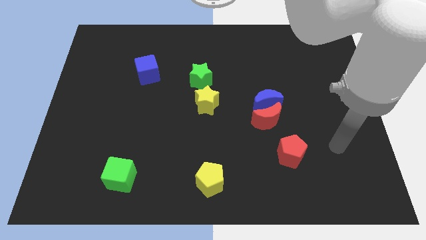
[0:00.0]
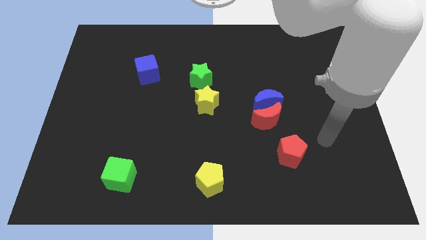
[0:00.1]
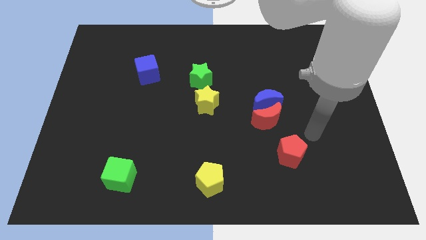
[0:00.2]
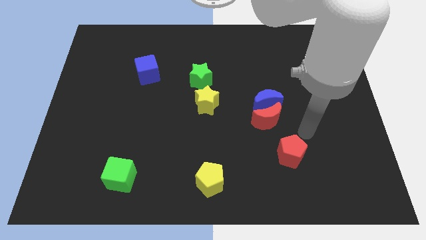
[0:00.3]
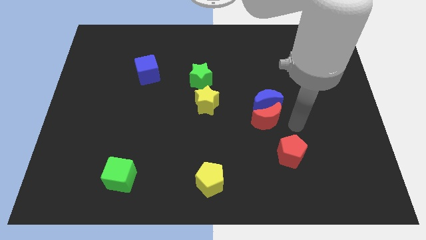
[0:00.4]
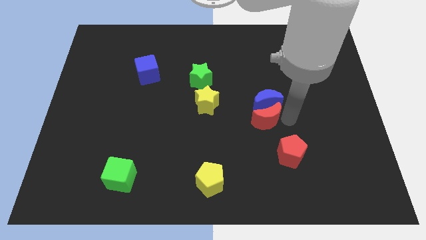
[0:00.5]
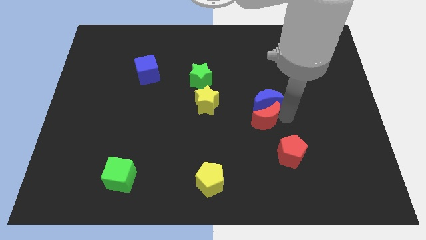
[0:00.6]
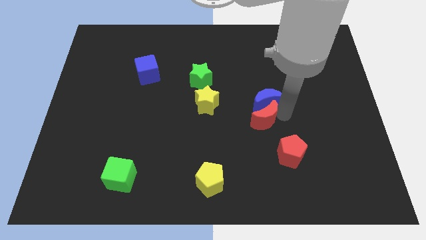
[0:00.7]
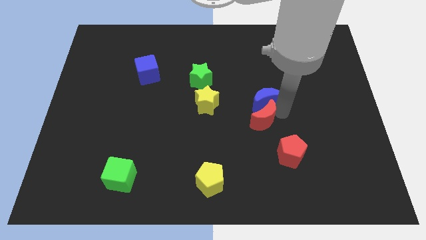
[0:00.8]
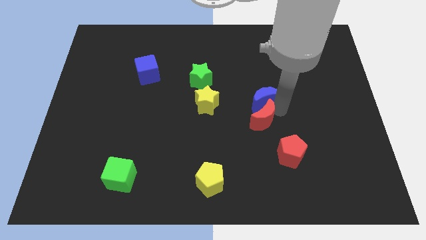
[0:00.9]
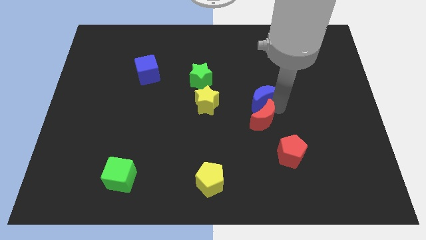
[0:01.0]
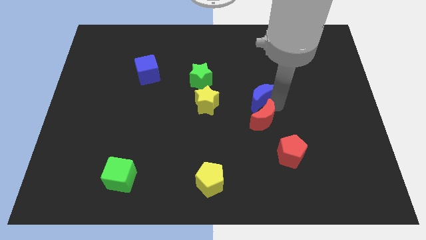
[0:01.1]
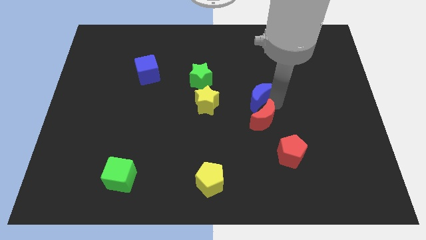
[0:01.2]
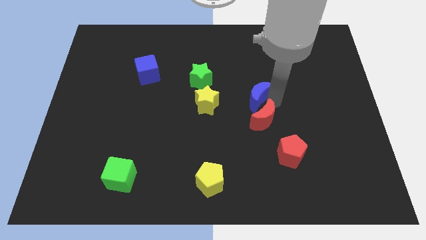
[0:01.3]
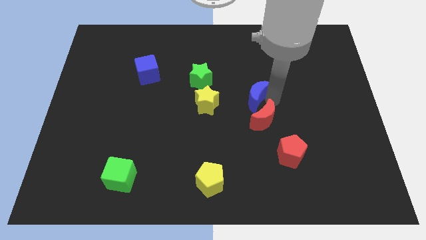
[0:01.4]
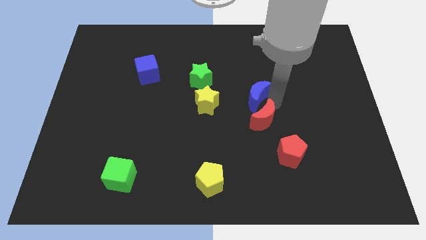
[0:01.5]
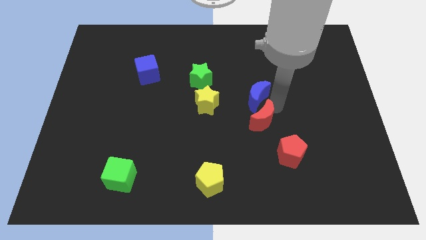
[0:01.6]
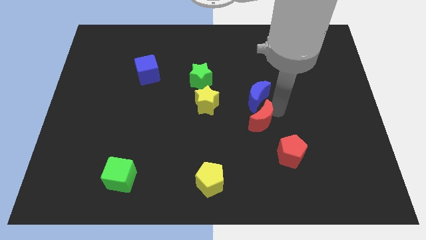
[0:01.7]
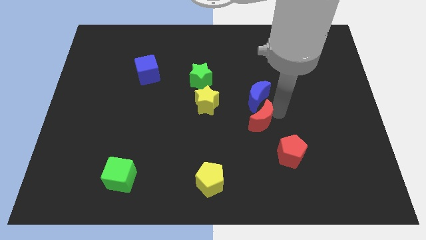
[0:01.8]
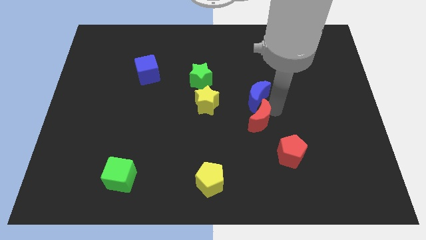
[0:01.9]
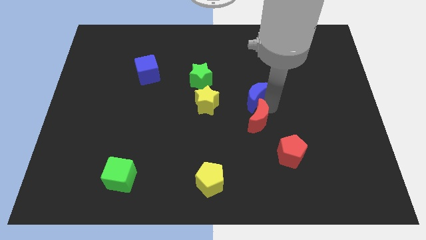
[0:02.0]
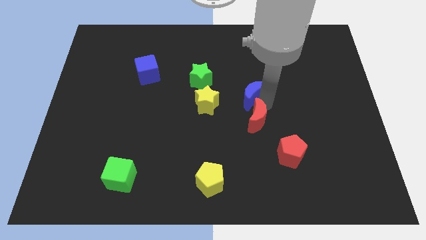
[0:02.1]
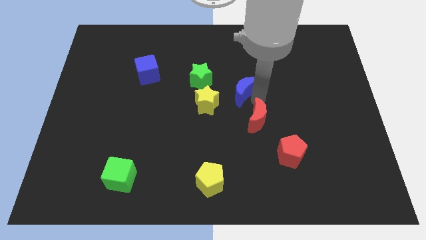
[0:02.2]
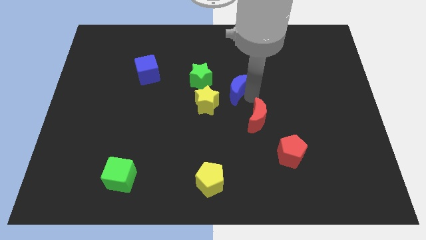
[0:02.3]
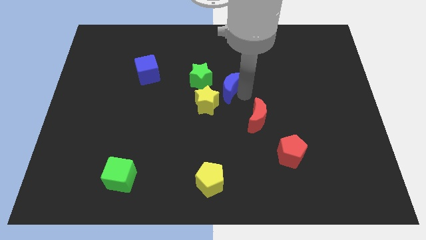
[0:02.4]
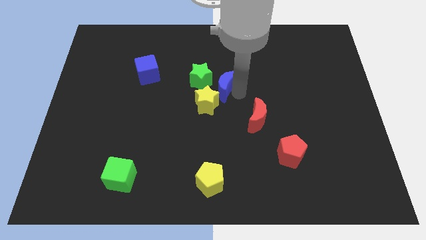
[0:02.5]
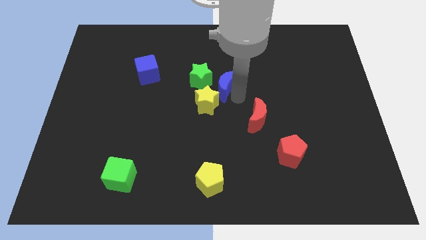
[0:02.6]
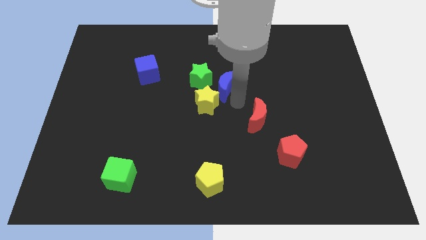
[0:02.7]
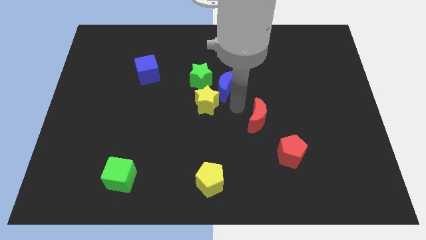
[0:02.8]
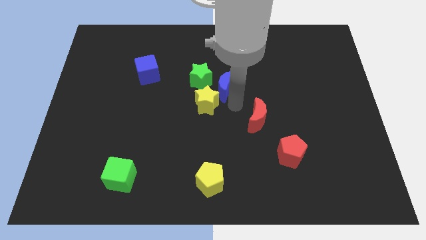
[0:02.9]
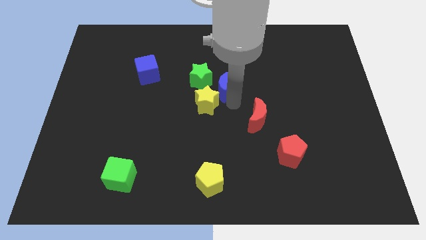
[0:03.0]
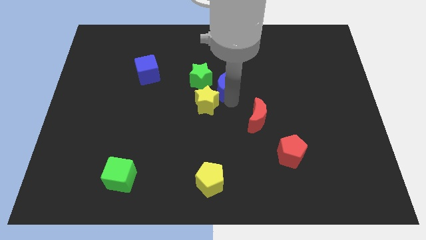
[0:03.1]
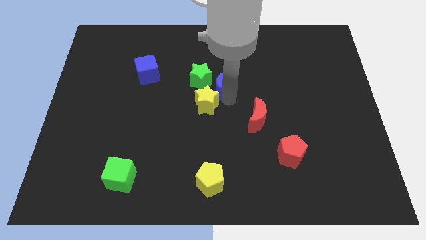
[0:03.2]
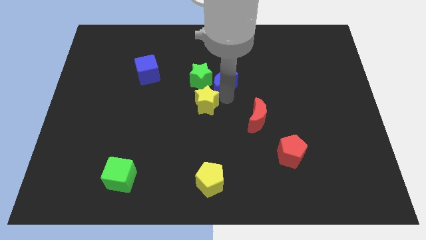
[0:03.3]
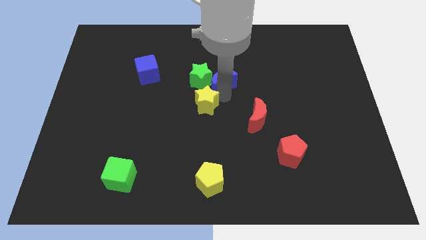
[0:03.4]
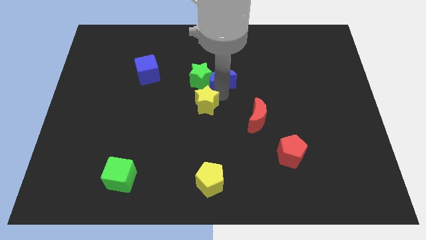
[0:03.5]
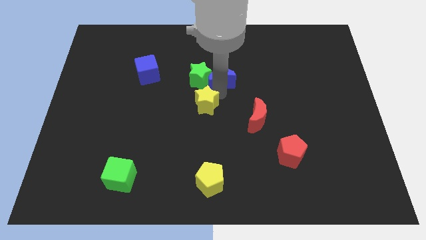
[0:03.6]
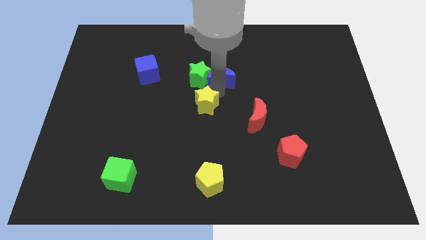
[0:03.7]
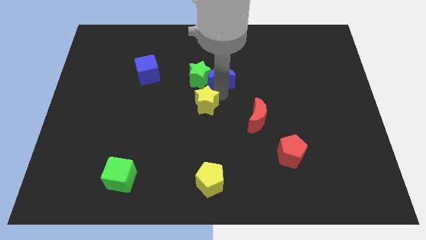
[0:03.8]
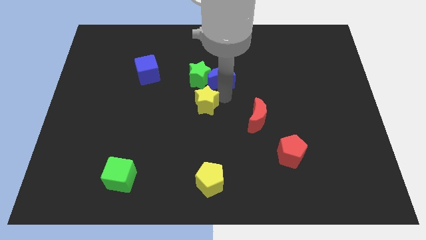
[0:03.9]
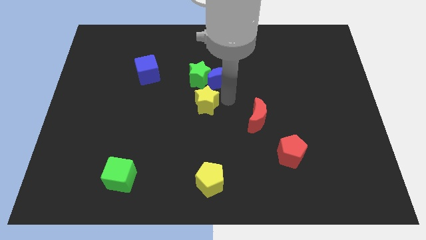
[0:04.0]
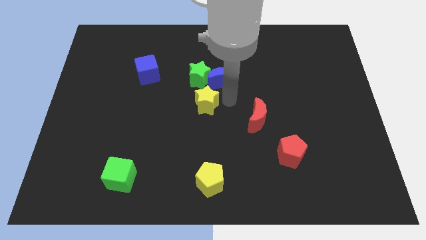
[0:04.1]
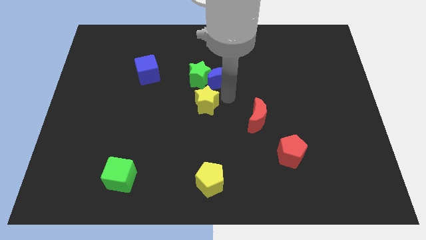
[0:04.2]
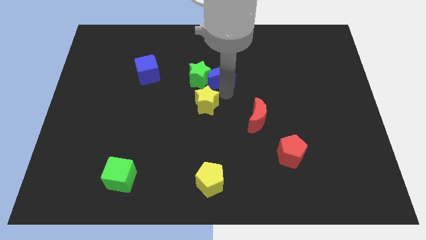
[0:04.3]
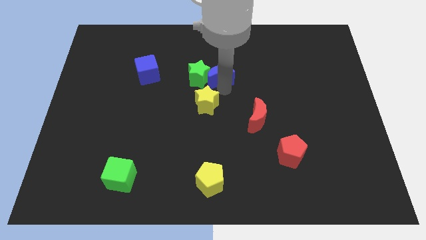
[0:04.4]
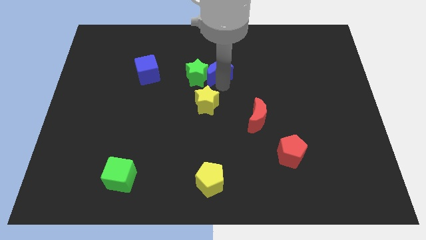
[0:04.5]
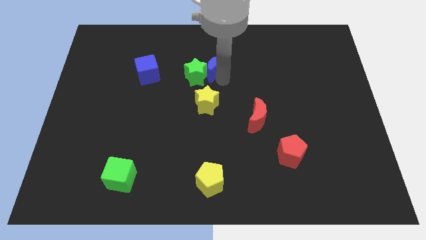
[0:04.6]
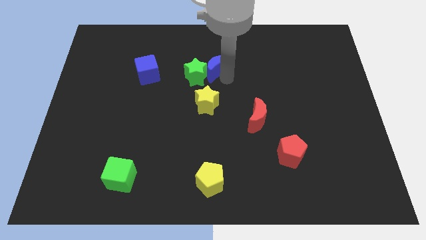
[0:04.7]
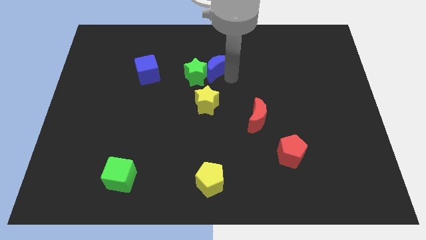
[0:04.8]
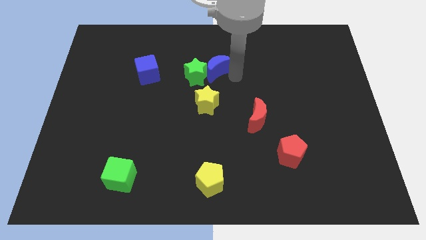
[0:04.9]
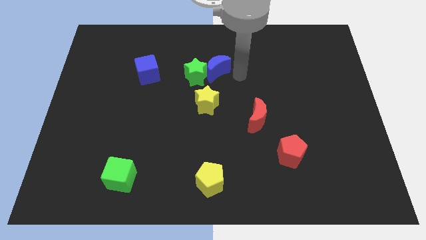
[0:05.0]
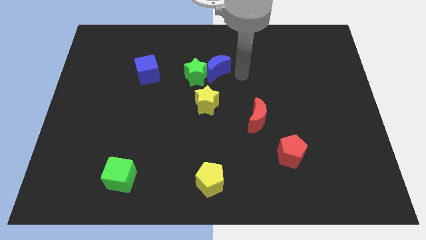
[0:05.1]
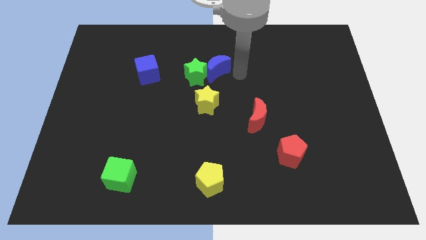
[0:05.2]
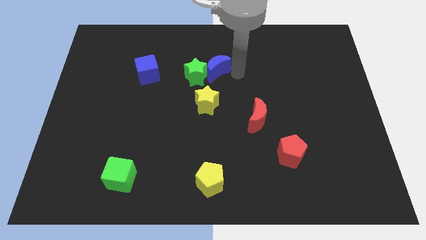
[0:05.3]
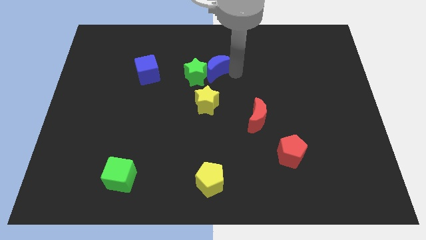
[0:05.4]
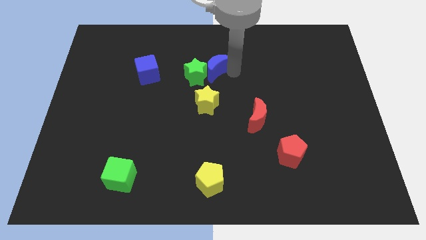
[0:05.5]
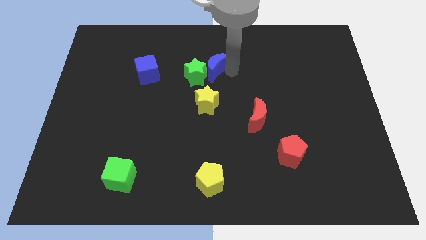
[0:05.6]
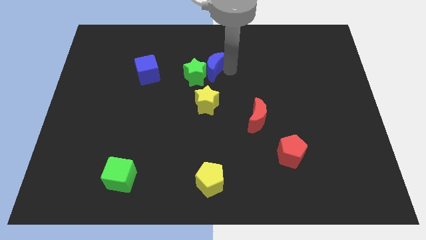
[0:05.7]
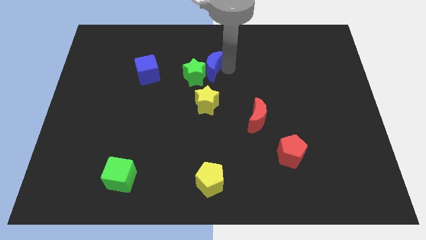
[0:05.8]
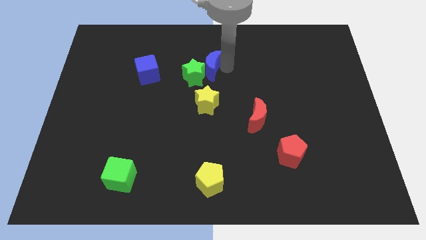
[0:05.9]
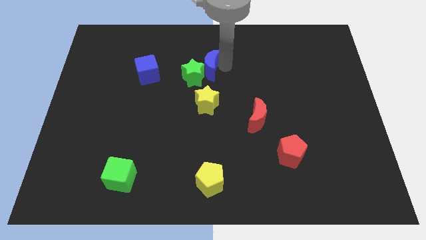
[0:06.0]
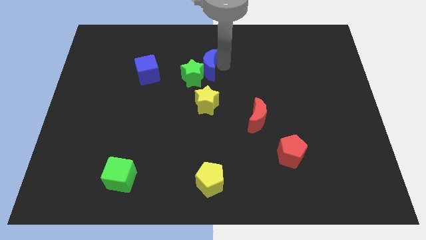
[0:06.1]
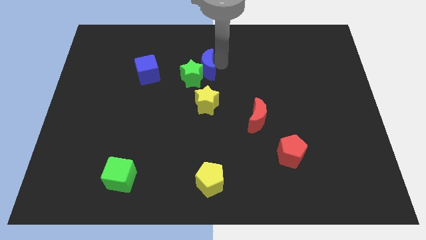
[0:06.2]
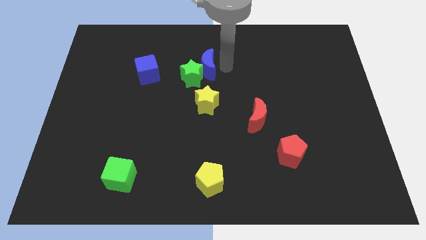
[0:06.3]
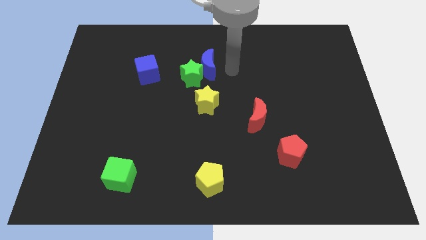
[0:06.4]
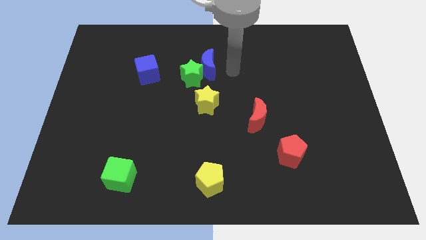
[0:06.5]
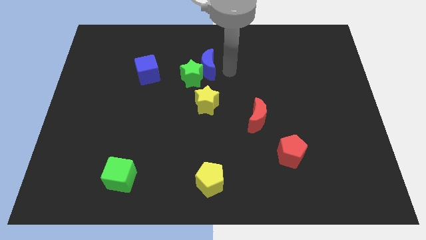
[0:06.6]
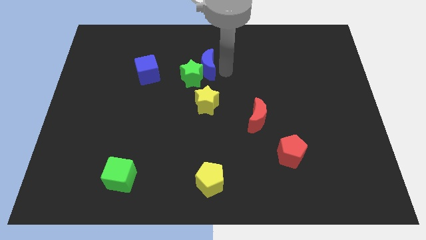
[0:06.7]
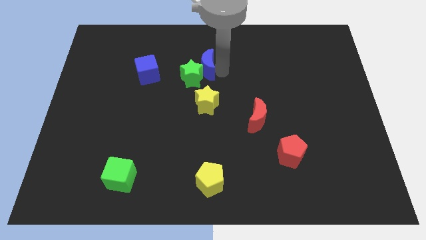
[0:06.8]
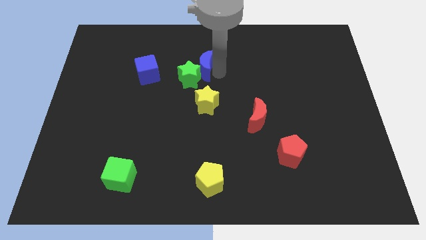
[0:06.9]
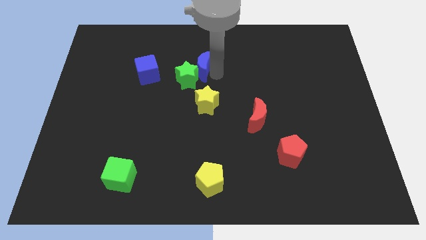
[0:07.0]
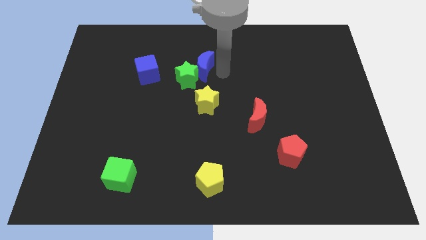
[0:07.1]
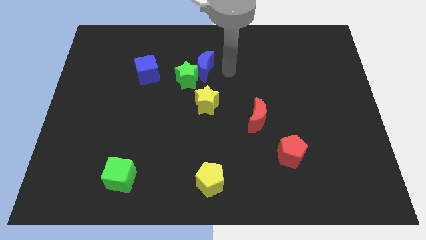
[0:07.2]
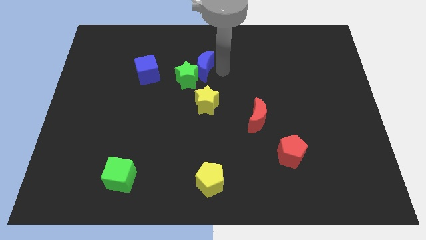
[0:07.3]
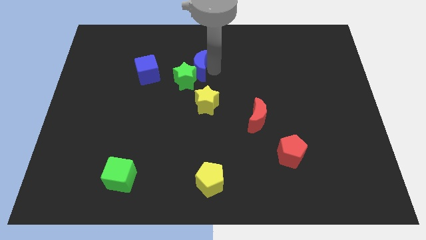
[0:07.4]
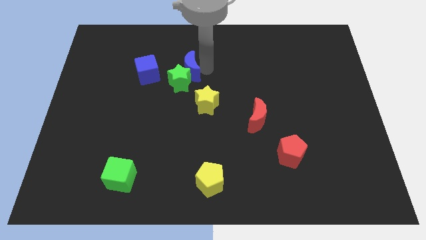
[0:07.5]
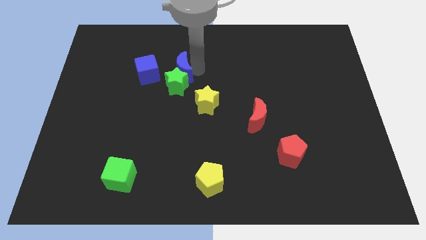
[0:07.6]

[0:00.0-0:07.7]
slide the blue moon diagonally up and to the left of the green star
